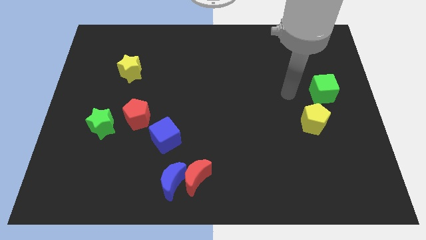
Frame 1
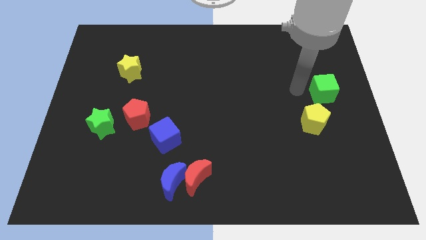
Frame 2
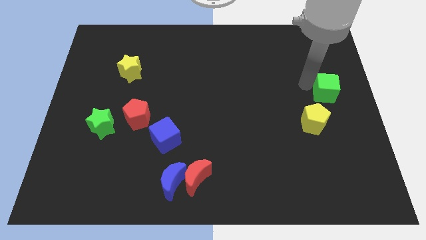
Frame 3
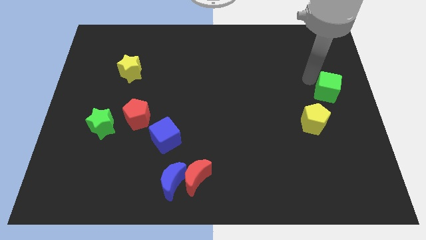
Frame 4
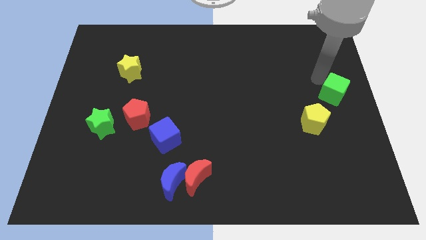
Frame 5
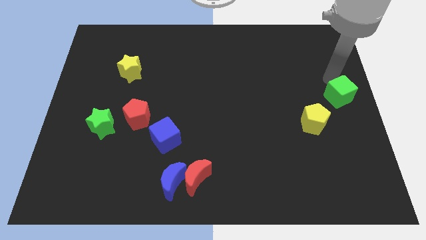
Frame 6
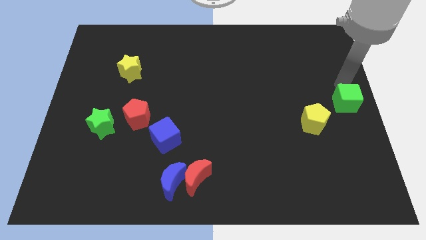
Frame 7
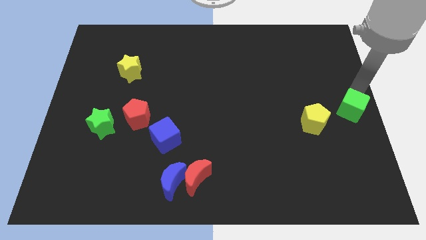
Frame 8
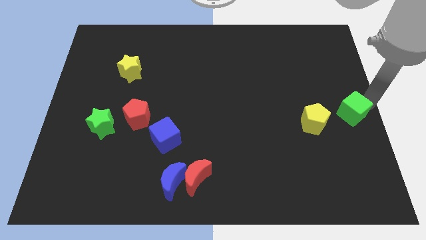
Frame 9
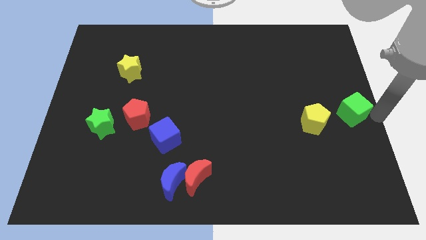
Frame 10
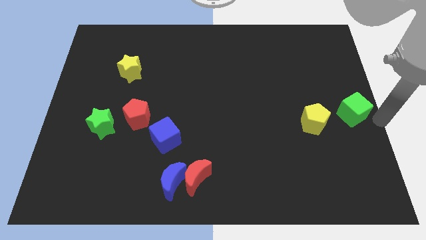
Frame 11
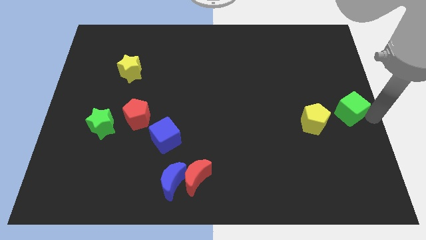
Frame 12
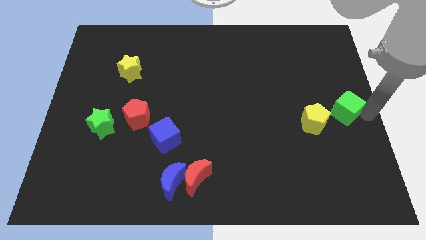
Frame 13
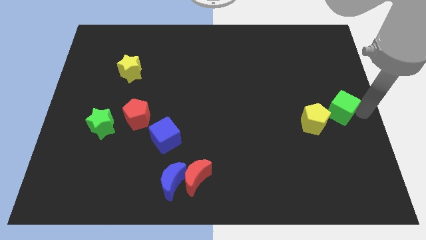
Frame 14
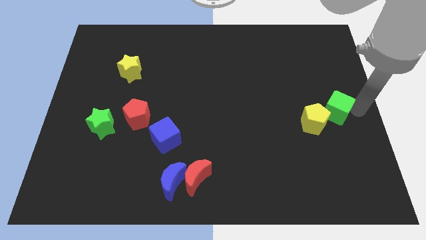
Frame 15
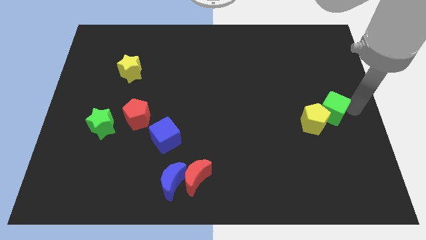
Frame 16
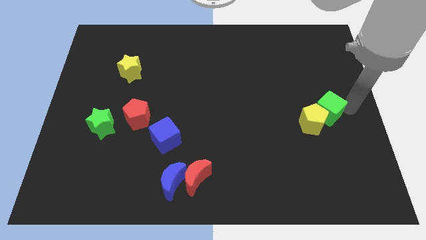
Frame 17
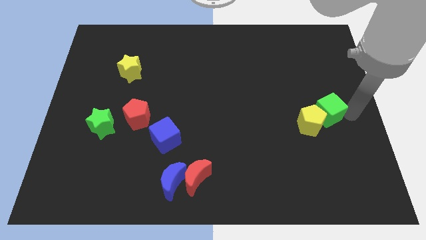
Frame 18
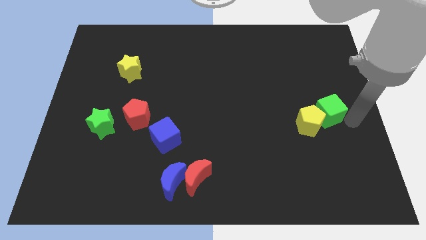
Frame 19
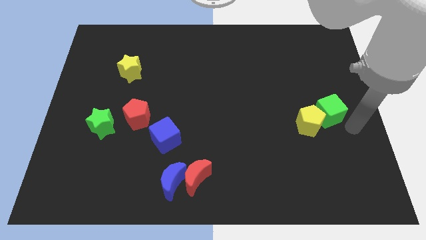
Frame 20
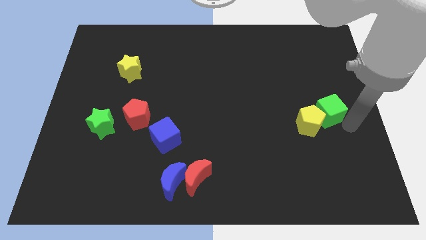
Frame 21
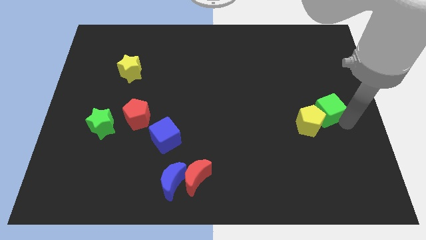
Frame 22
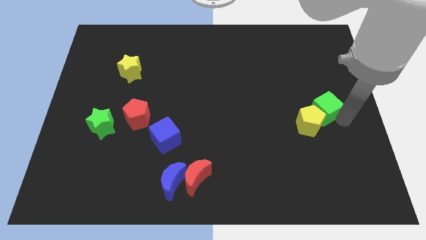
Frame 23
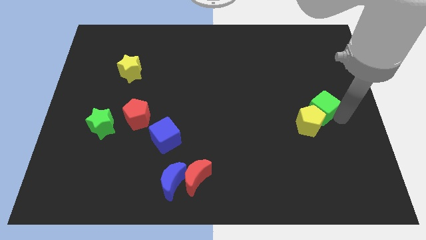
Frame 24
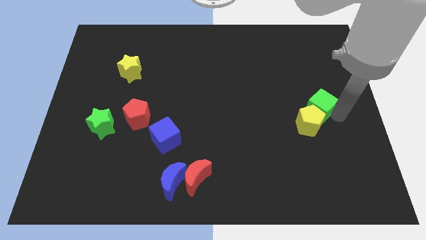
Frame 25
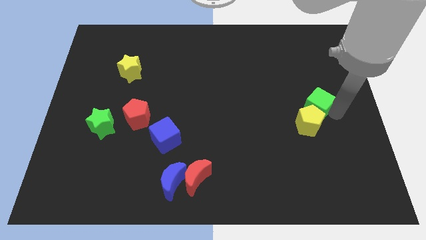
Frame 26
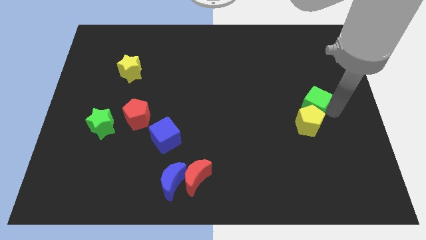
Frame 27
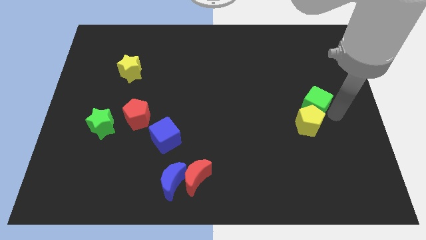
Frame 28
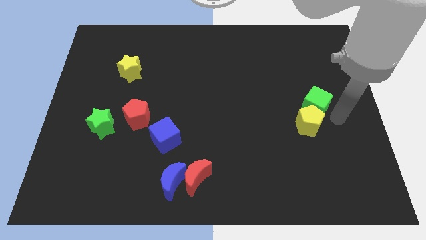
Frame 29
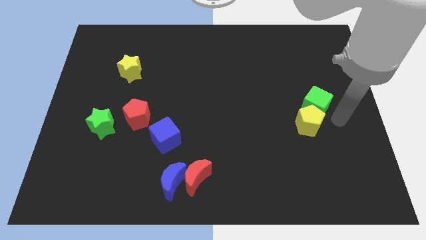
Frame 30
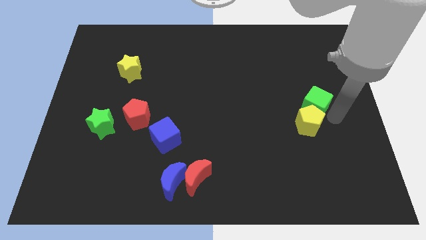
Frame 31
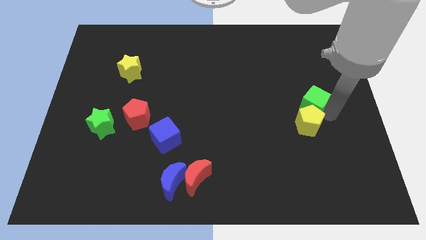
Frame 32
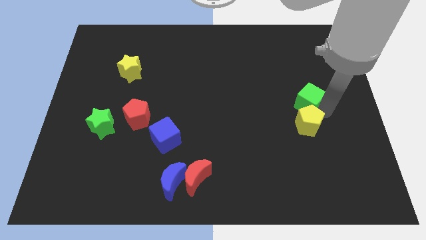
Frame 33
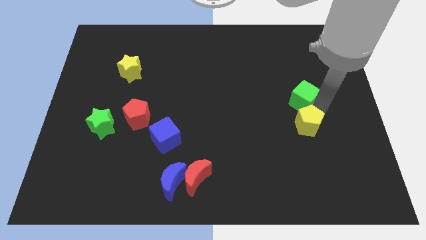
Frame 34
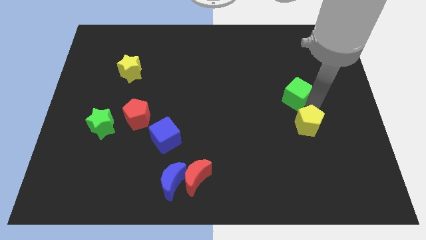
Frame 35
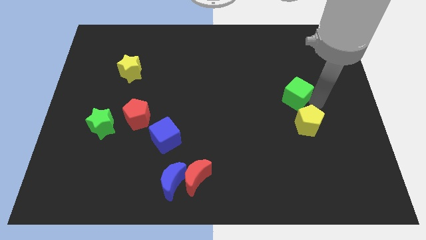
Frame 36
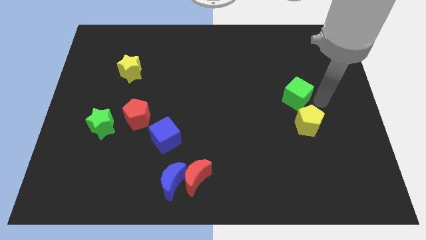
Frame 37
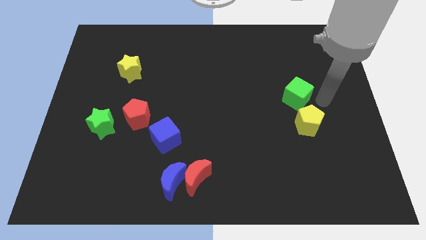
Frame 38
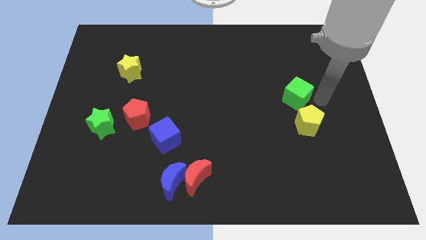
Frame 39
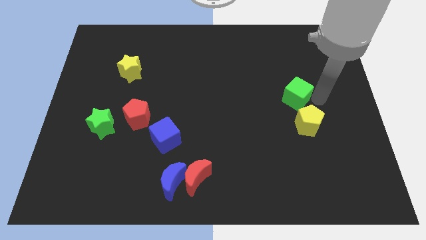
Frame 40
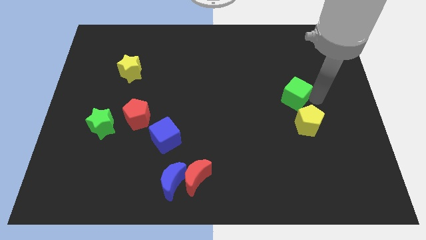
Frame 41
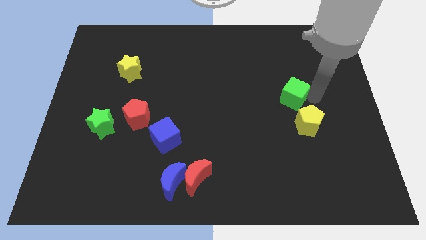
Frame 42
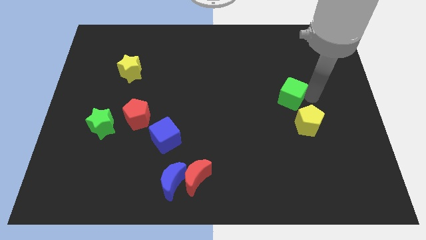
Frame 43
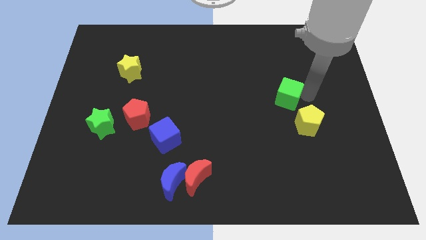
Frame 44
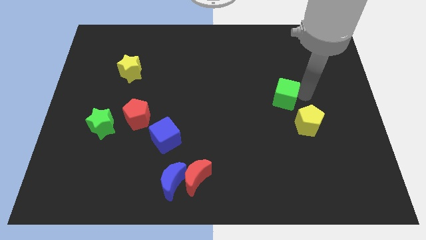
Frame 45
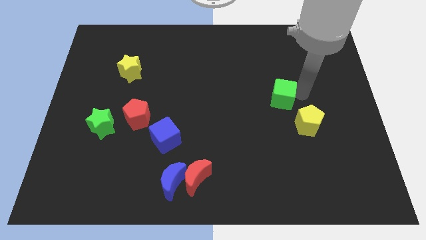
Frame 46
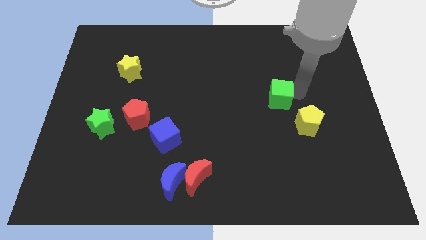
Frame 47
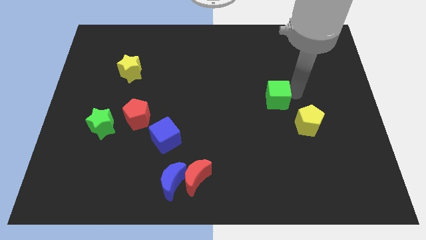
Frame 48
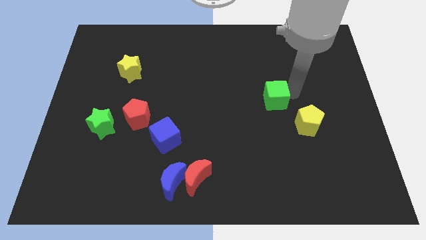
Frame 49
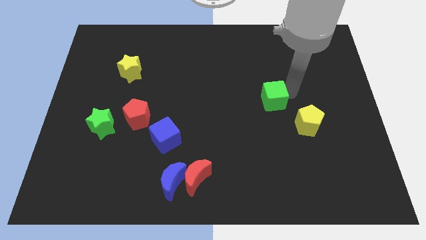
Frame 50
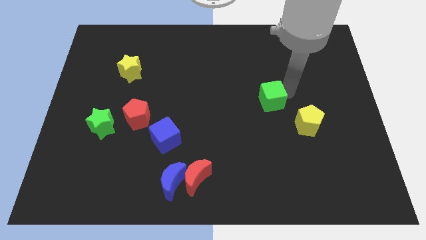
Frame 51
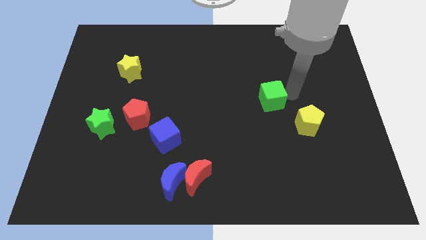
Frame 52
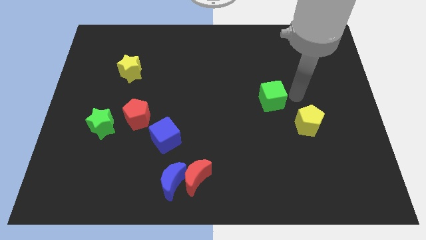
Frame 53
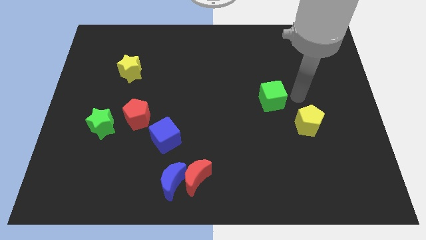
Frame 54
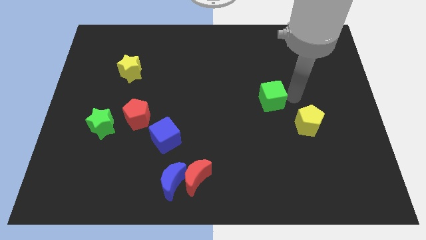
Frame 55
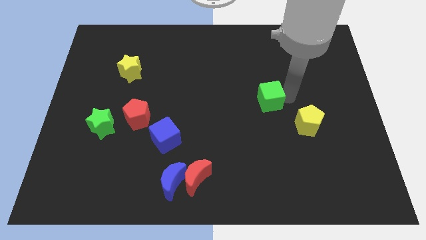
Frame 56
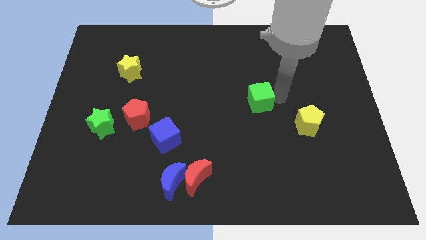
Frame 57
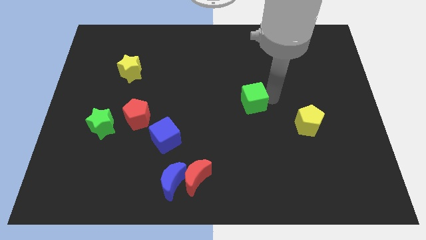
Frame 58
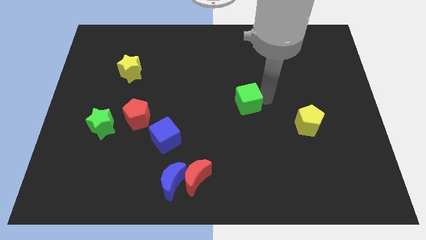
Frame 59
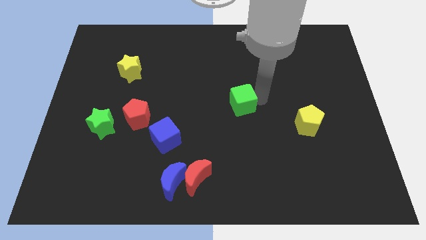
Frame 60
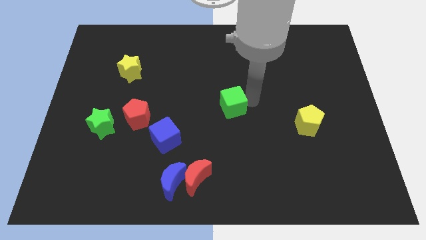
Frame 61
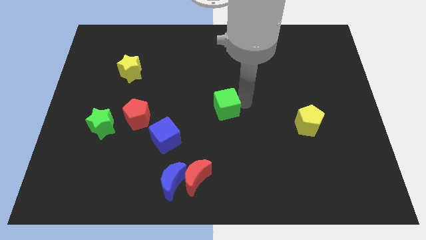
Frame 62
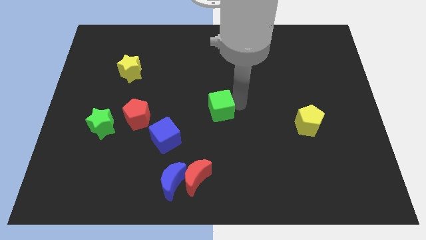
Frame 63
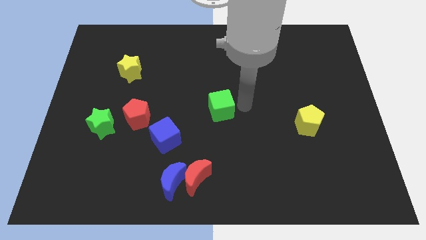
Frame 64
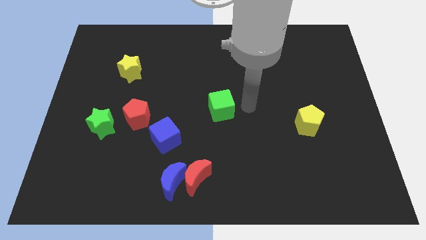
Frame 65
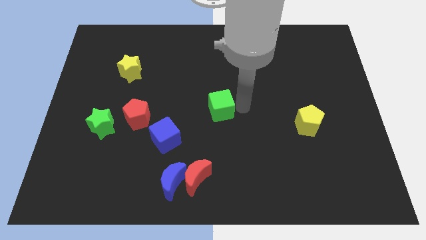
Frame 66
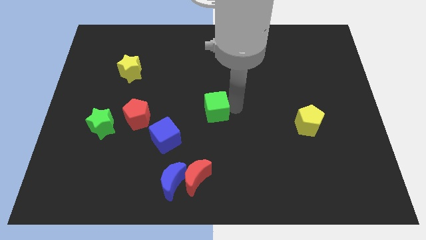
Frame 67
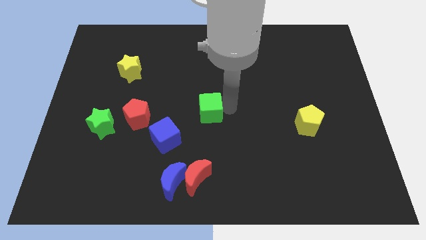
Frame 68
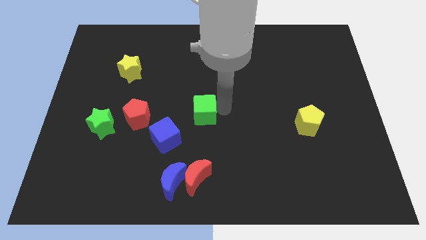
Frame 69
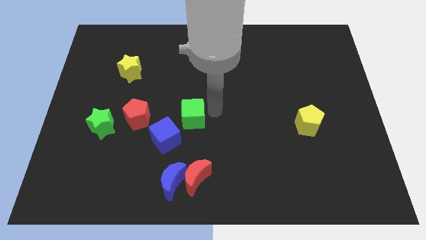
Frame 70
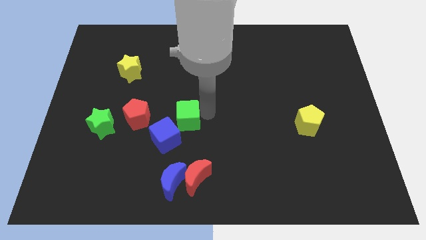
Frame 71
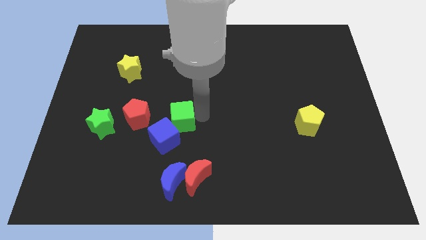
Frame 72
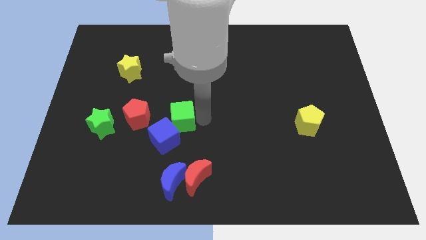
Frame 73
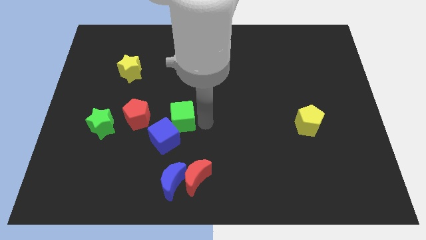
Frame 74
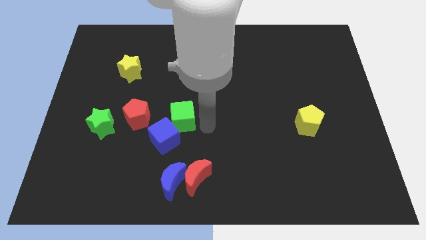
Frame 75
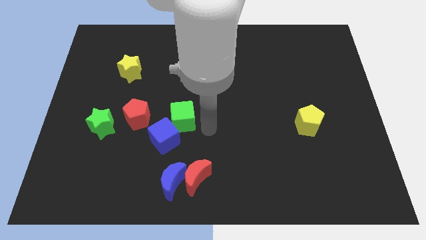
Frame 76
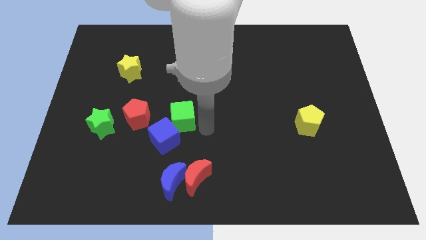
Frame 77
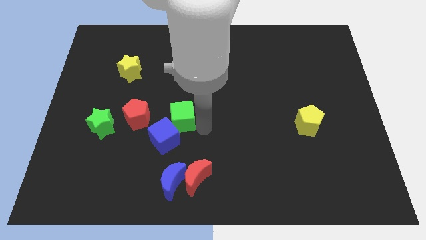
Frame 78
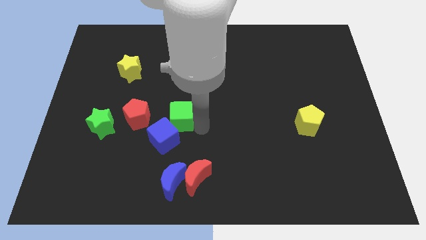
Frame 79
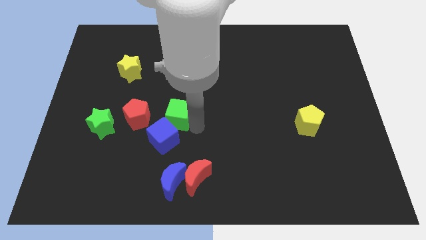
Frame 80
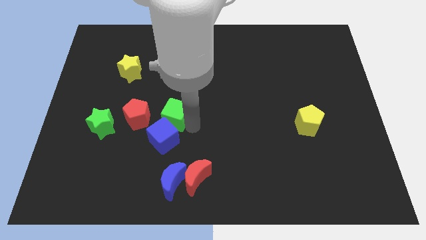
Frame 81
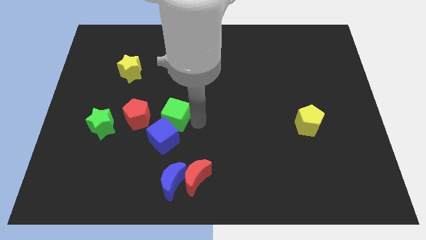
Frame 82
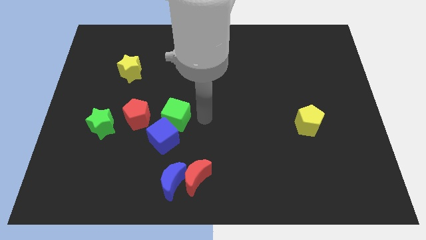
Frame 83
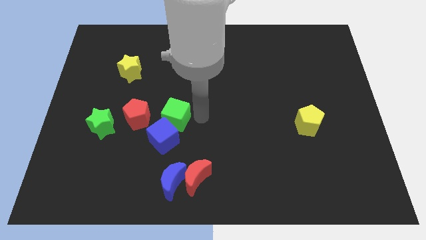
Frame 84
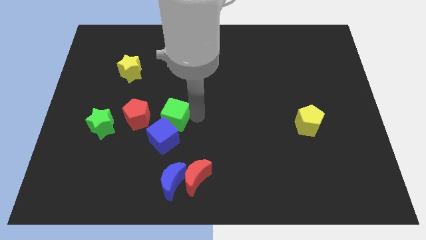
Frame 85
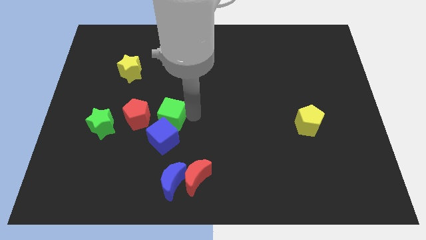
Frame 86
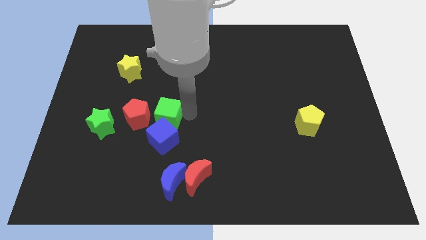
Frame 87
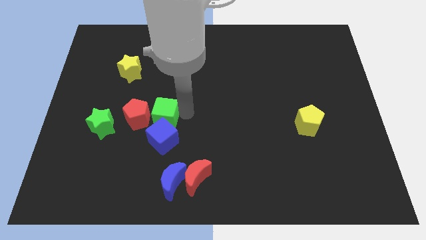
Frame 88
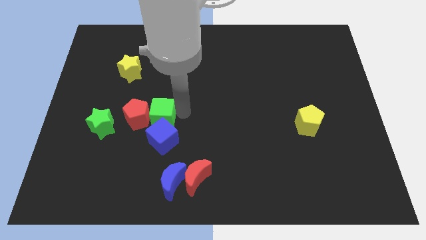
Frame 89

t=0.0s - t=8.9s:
move the green cube close to the red pentagon
